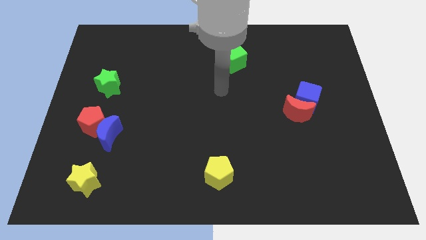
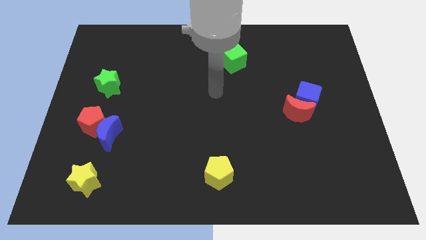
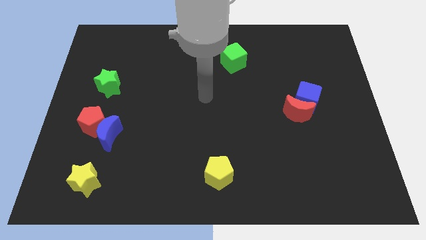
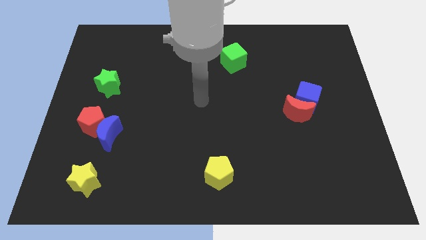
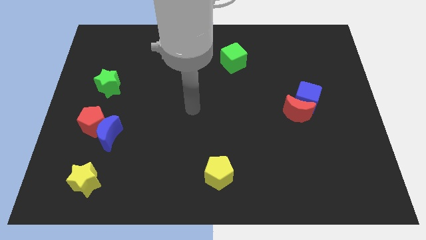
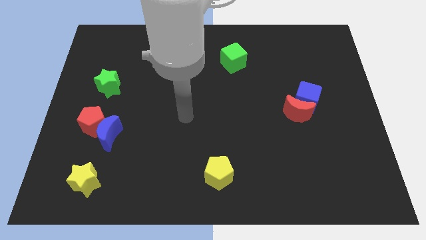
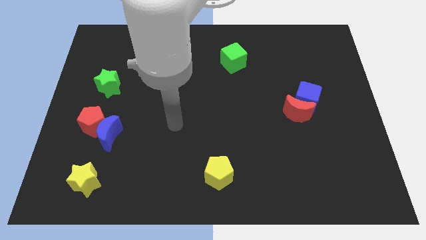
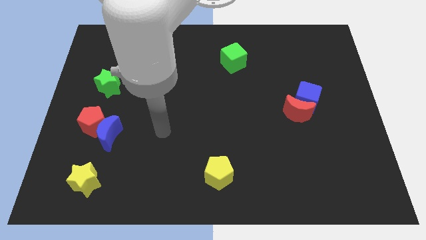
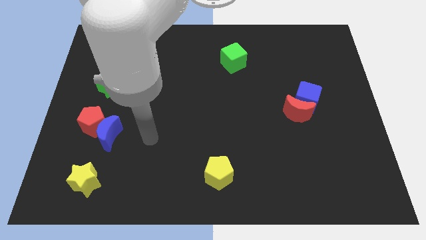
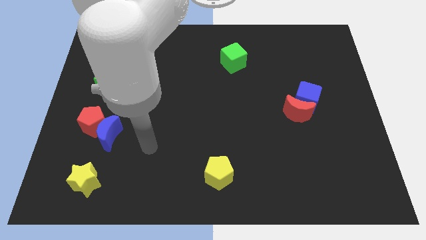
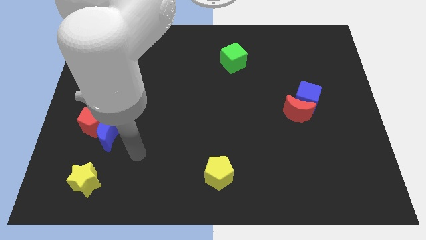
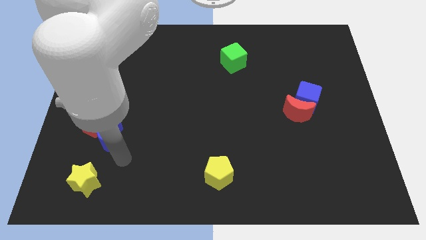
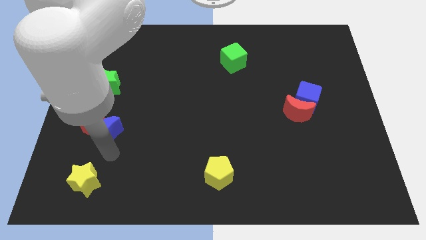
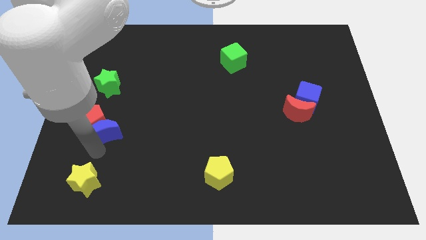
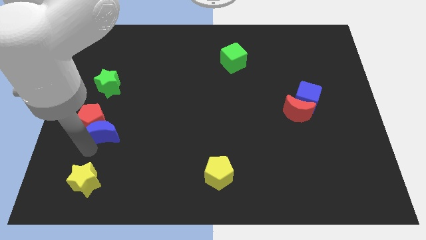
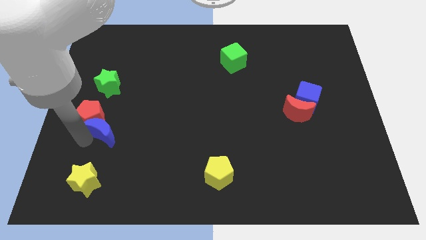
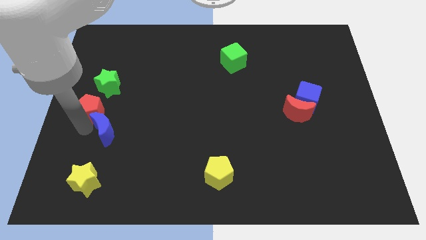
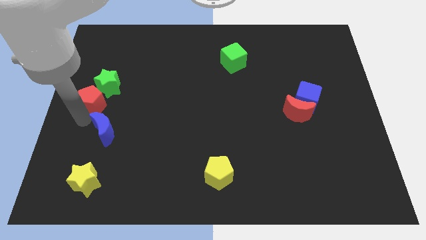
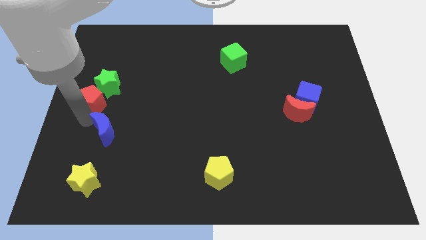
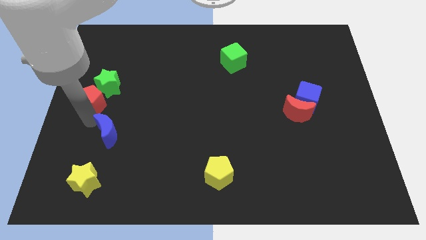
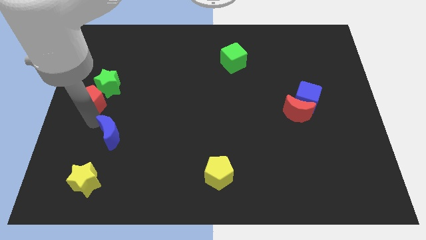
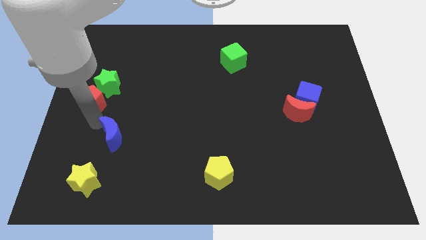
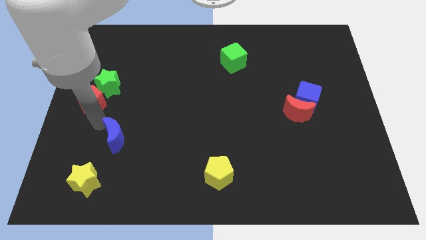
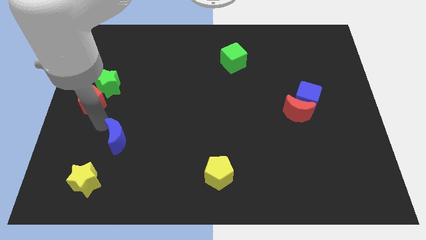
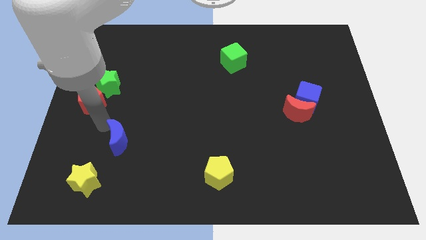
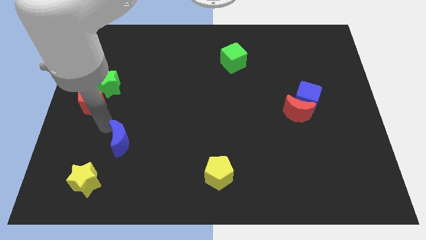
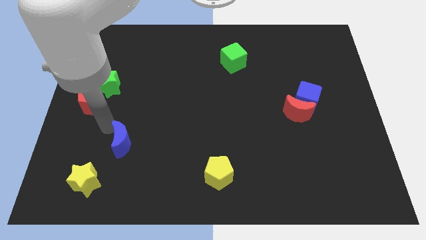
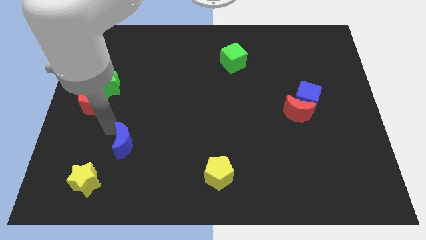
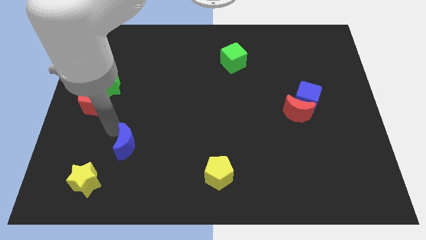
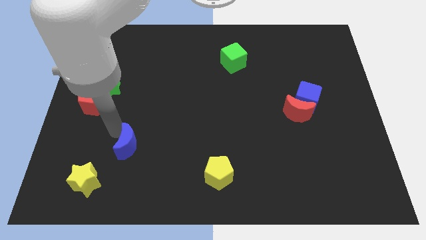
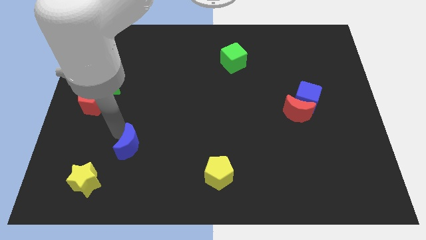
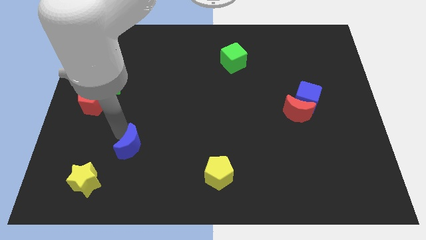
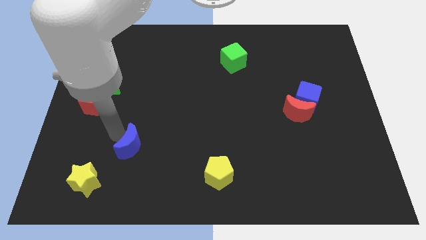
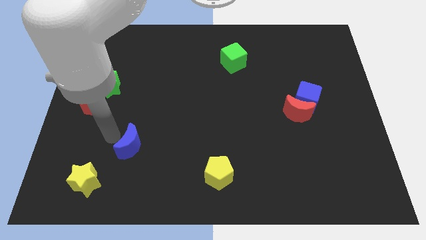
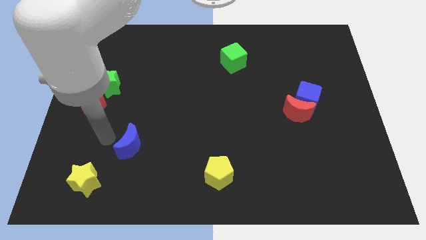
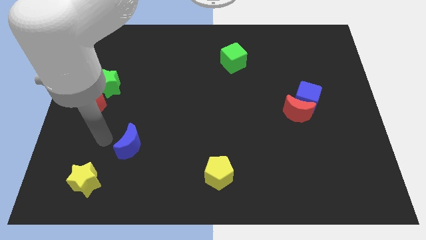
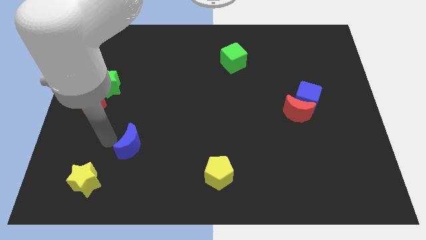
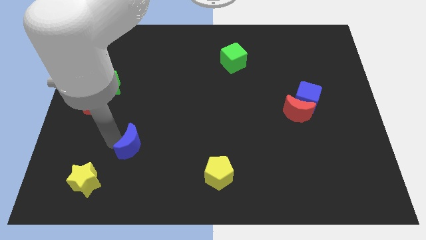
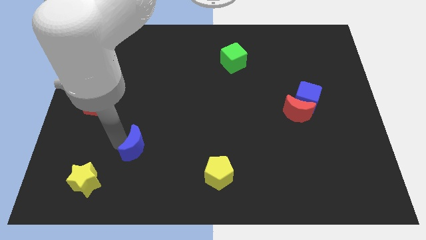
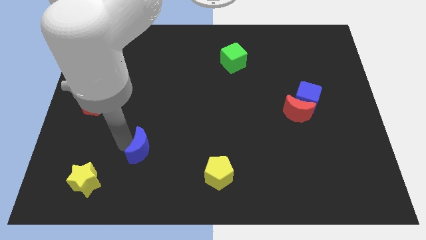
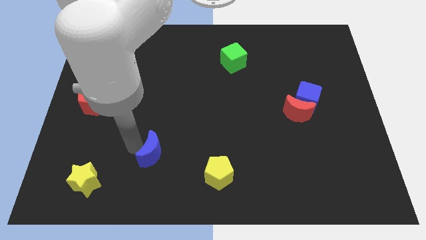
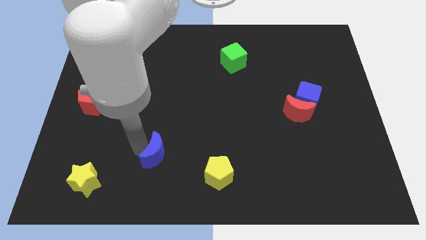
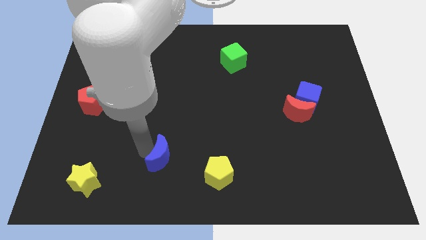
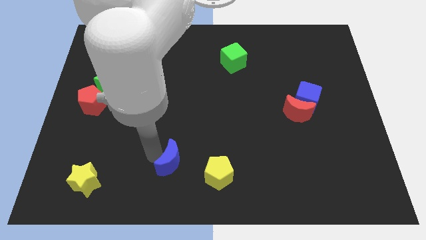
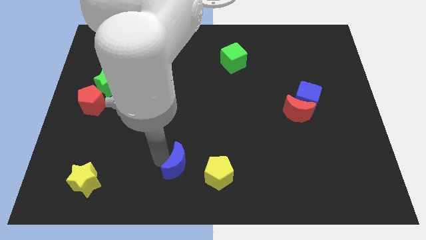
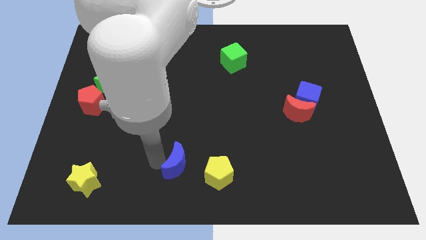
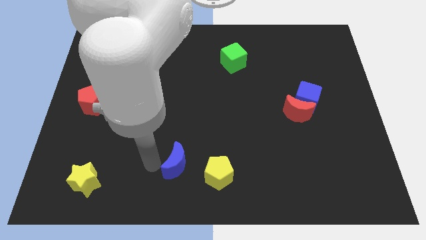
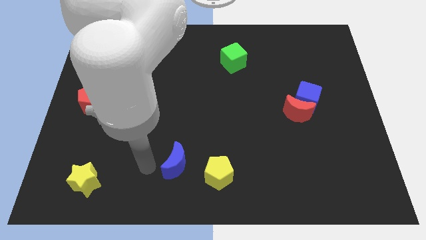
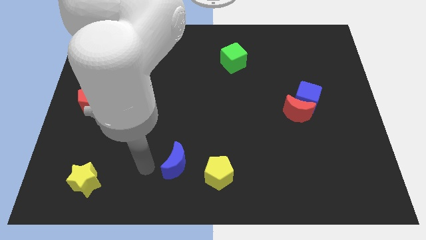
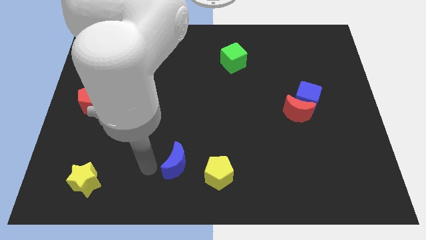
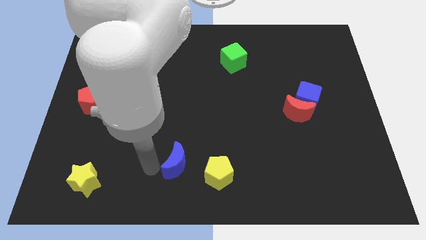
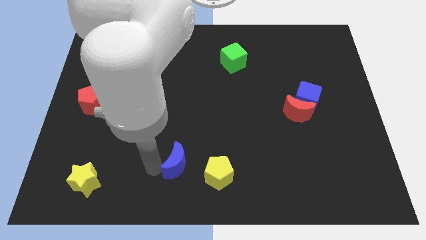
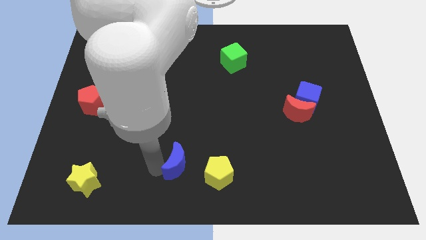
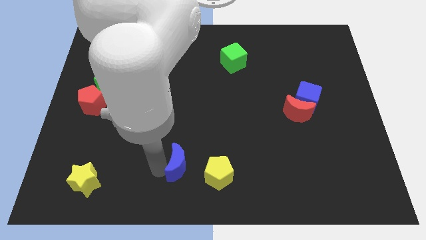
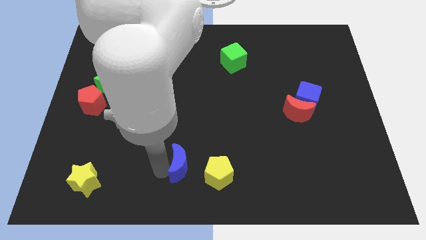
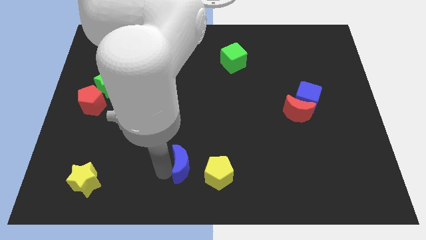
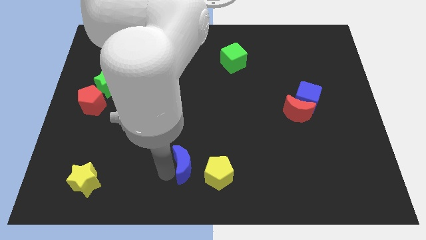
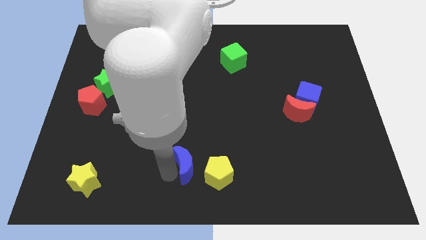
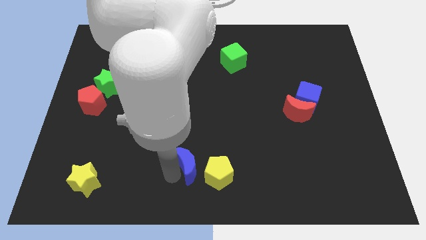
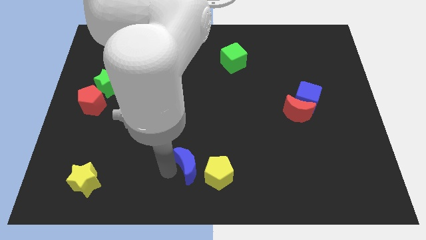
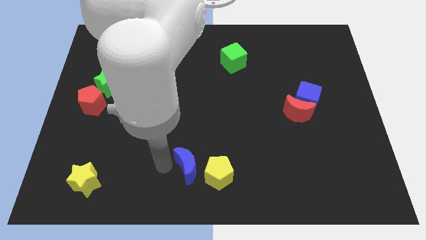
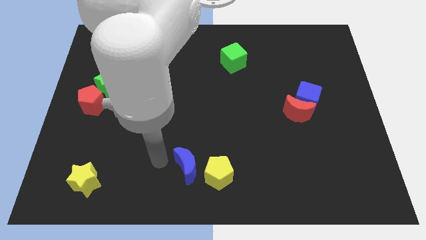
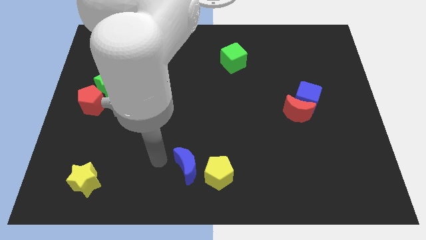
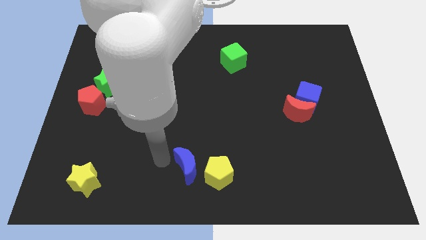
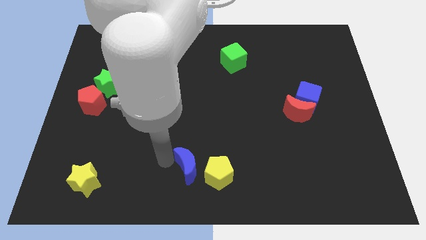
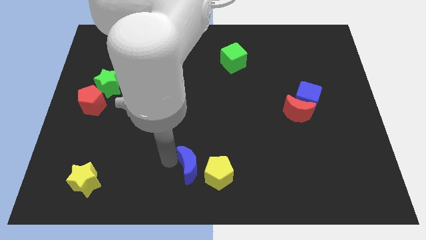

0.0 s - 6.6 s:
slide the blue moon to the yellow pentagon

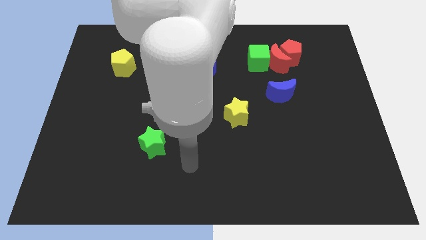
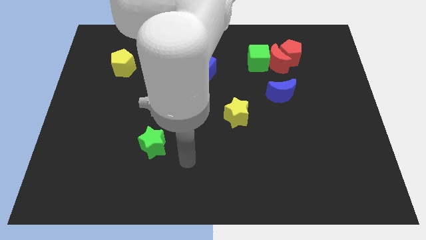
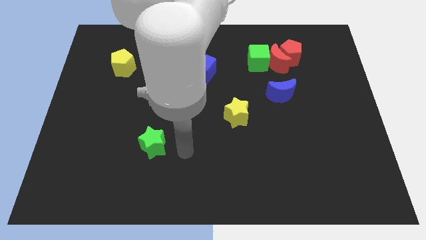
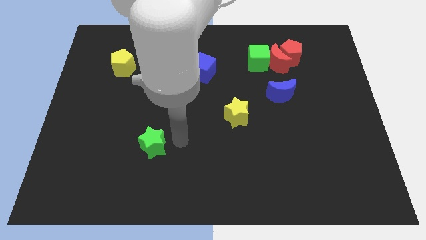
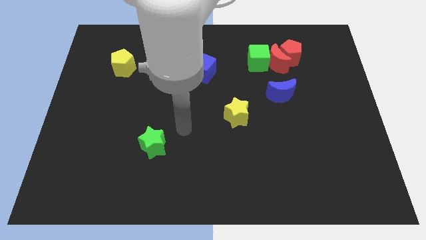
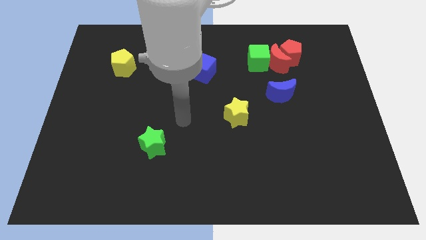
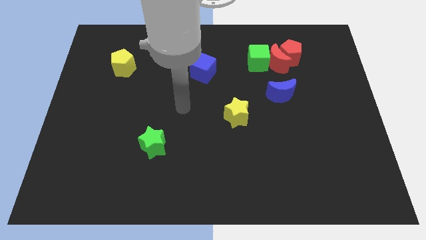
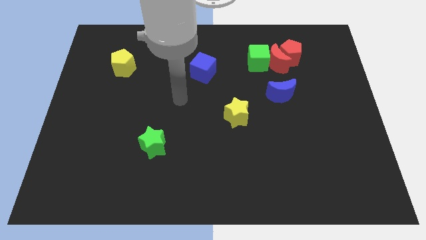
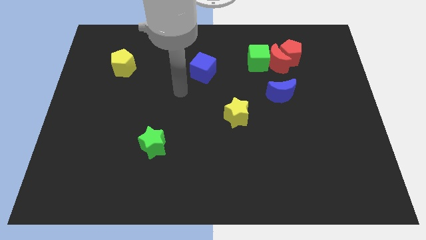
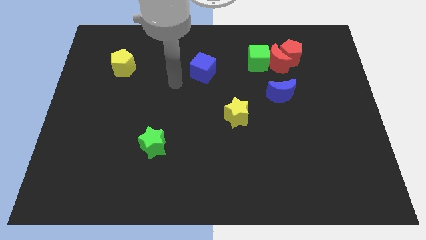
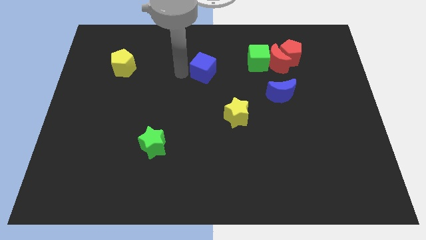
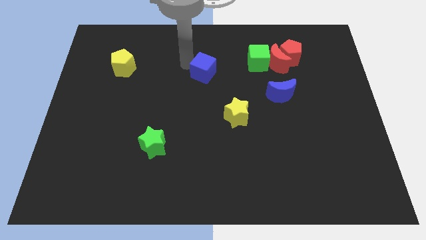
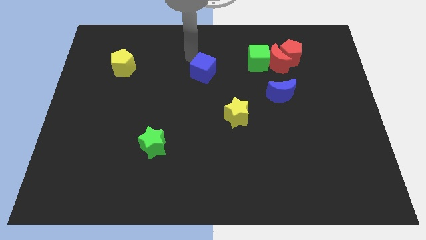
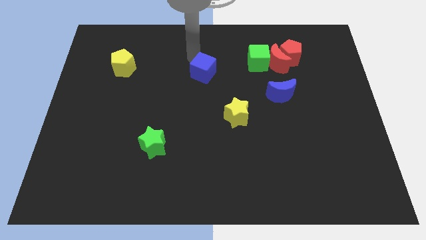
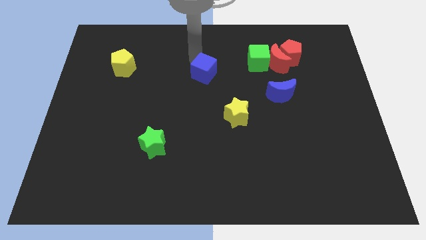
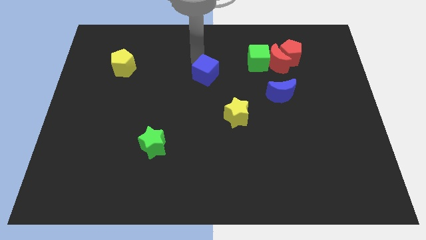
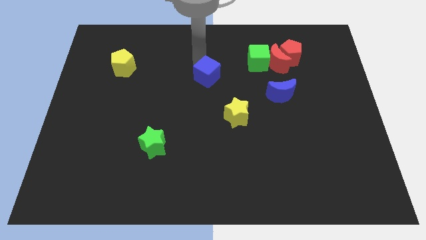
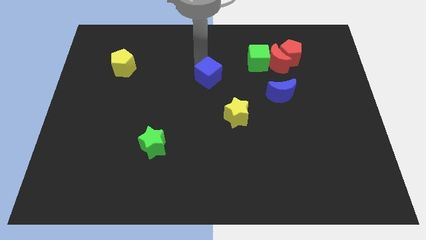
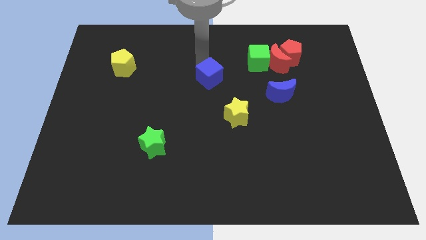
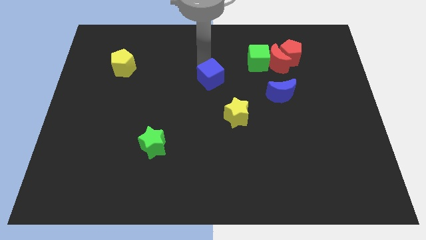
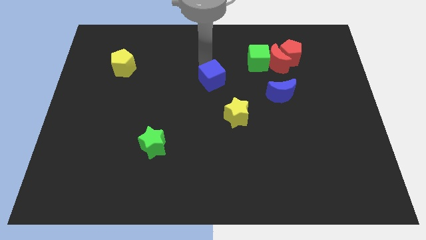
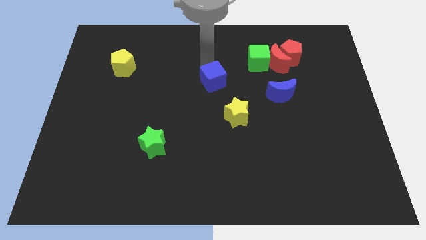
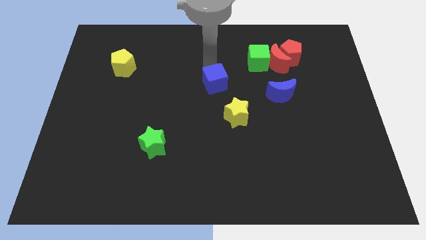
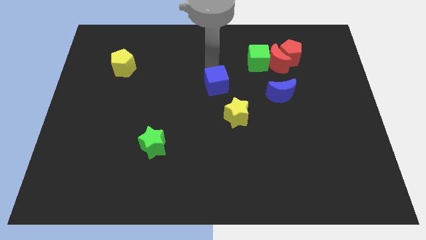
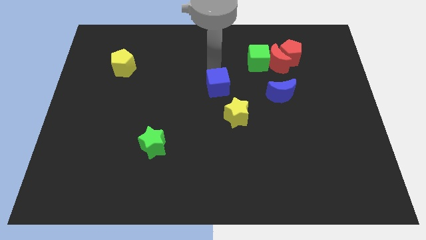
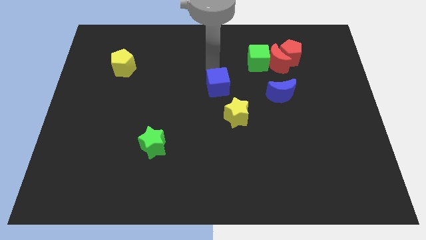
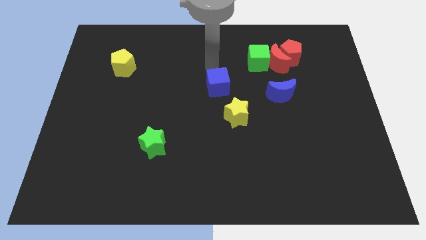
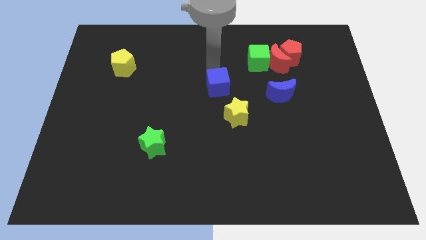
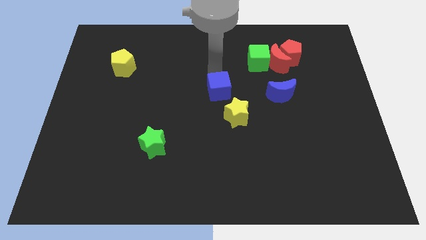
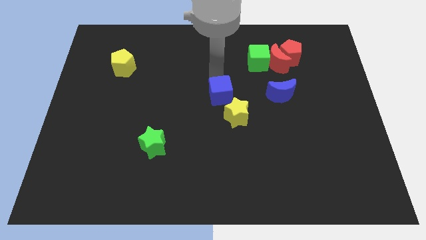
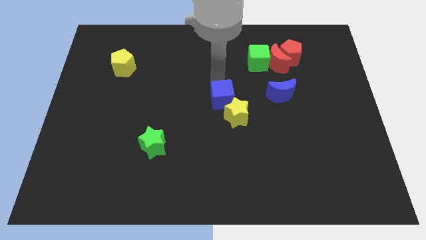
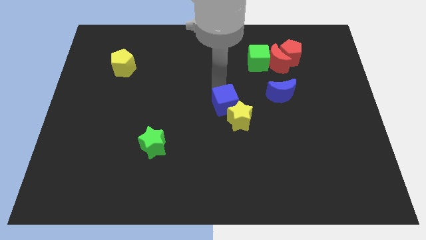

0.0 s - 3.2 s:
push the blue cube close to the yellow star
